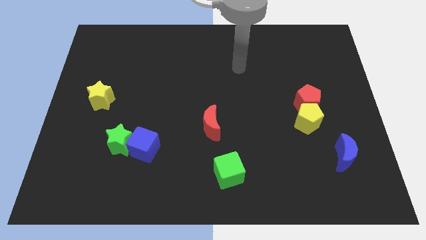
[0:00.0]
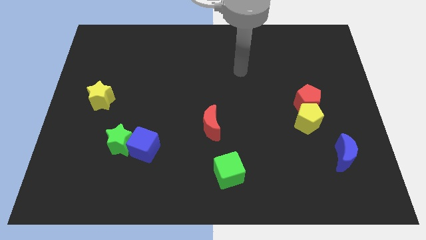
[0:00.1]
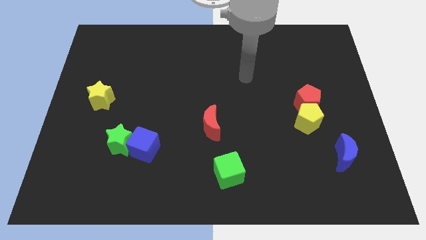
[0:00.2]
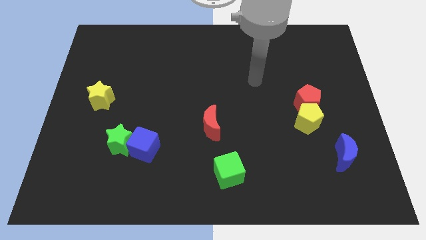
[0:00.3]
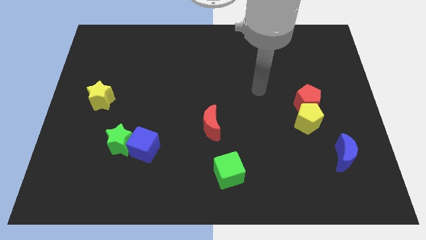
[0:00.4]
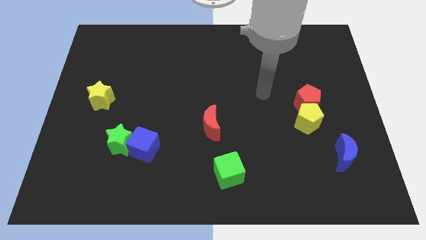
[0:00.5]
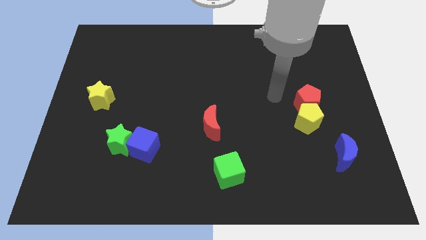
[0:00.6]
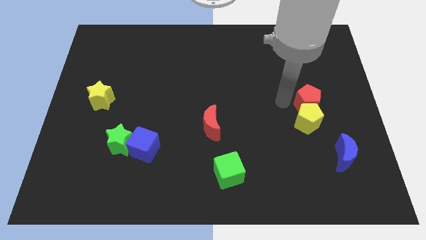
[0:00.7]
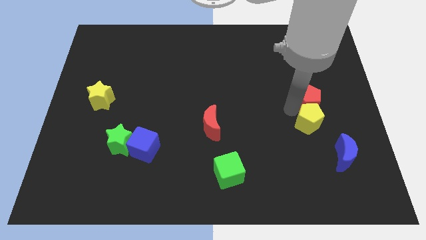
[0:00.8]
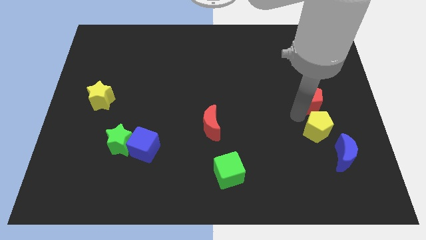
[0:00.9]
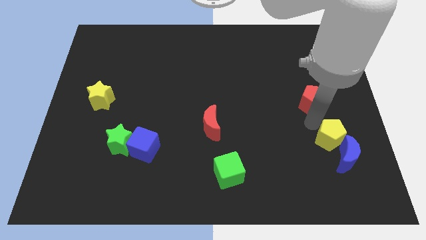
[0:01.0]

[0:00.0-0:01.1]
move the red pentagon away from the yellow pentagon

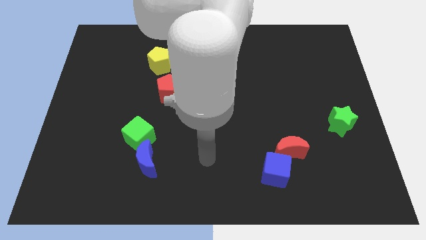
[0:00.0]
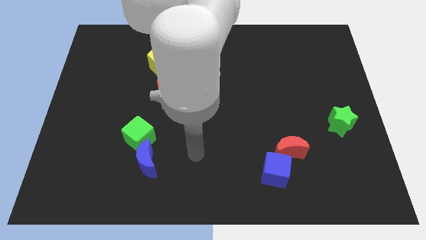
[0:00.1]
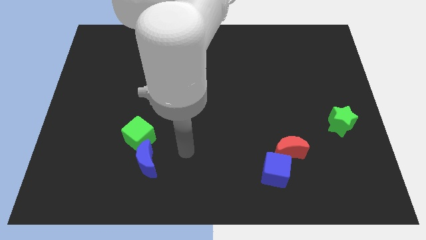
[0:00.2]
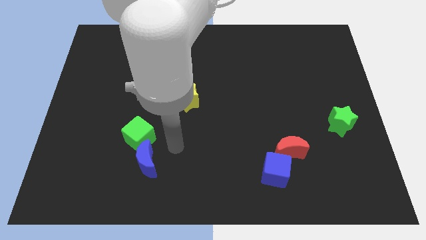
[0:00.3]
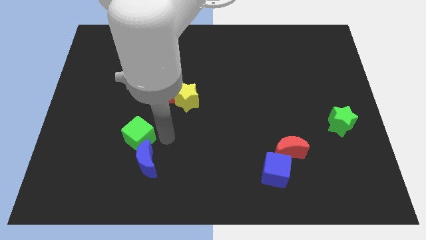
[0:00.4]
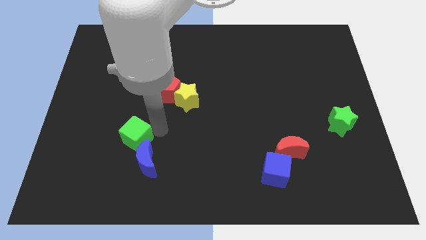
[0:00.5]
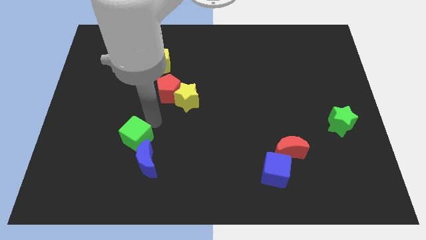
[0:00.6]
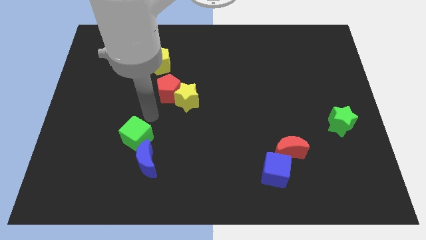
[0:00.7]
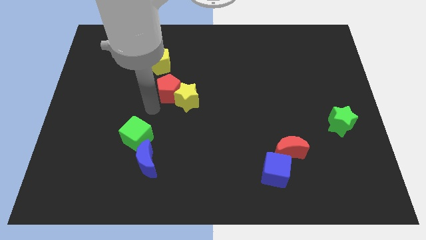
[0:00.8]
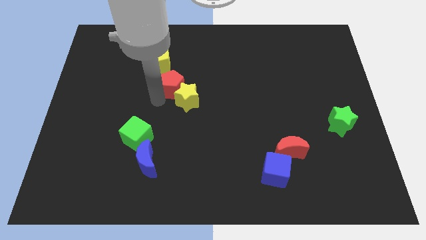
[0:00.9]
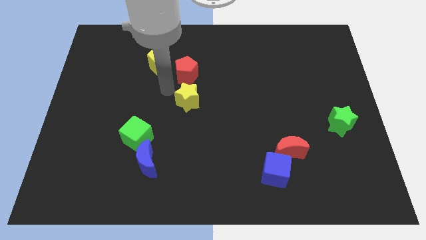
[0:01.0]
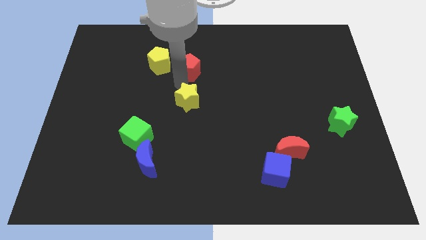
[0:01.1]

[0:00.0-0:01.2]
separate the yellow star from the red pentagon

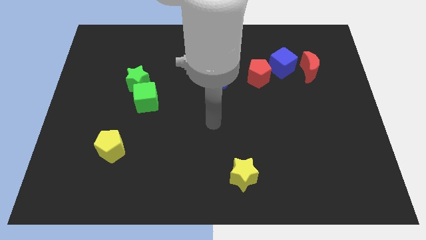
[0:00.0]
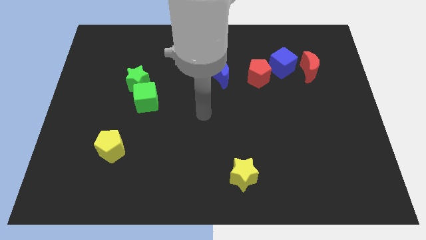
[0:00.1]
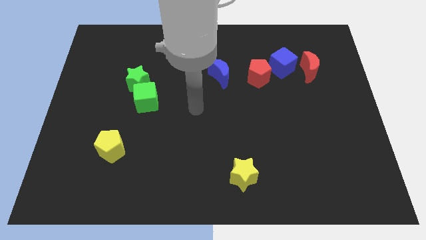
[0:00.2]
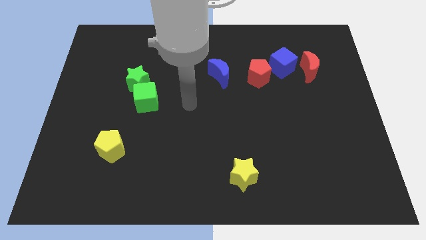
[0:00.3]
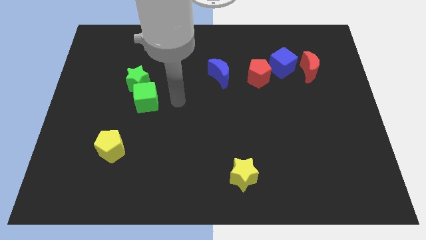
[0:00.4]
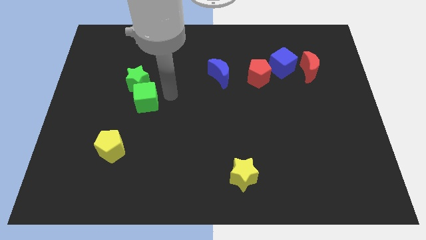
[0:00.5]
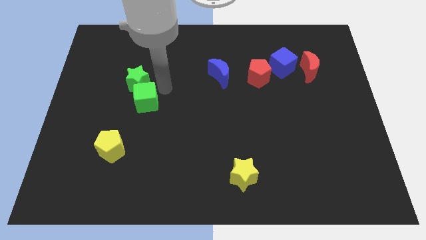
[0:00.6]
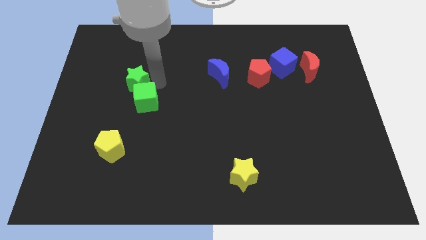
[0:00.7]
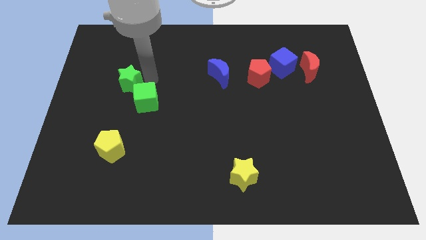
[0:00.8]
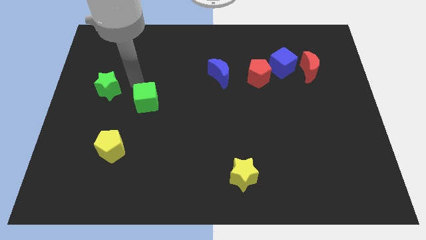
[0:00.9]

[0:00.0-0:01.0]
separate the green cube from the green star

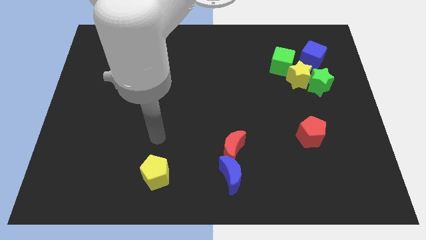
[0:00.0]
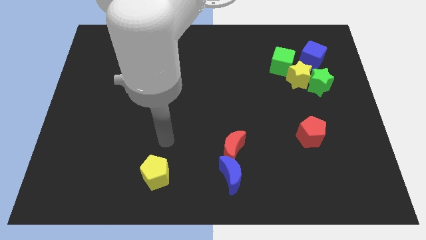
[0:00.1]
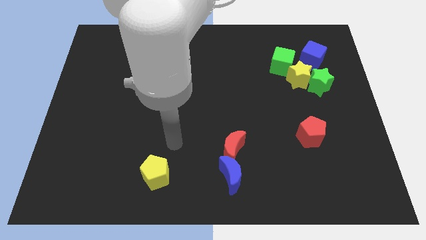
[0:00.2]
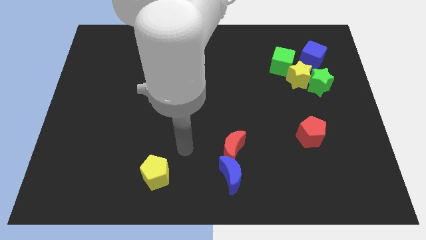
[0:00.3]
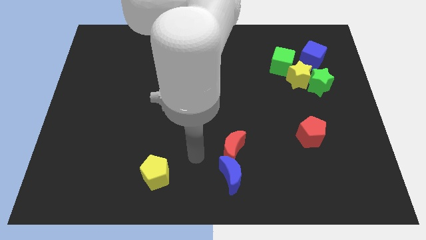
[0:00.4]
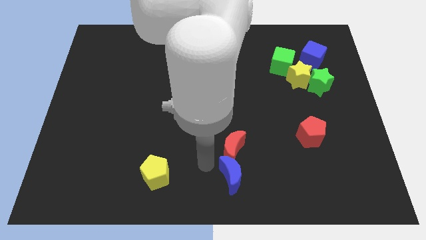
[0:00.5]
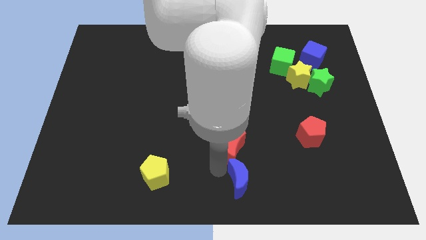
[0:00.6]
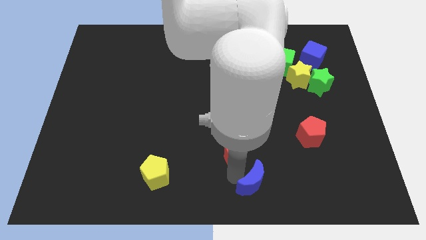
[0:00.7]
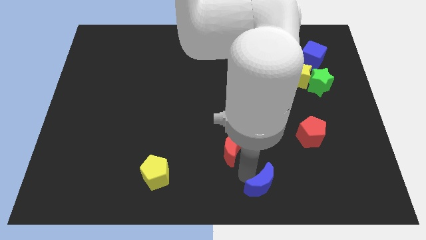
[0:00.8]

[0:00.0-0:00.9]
pull the red moon apart from the blue moon

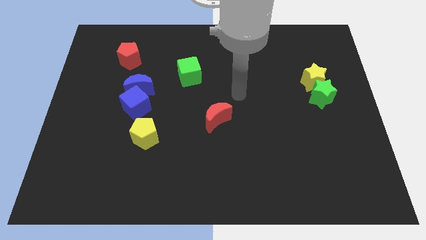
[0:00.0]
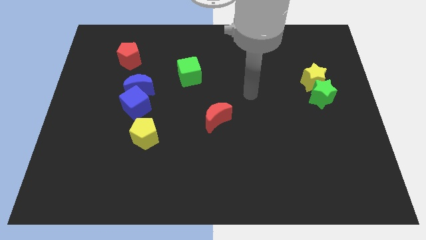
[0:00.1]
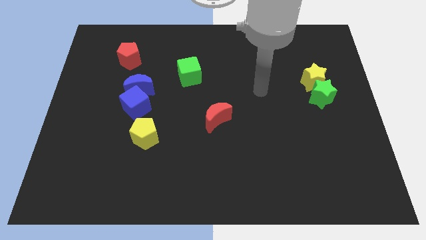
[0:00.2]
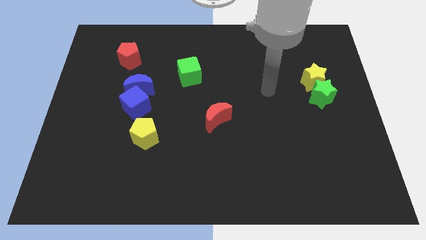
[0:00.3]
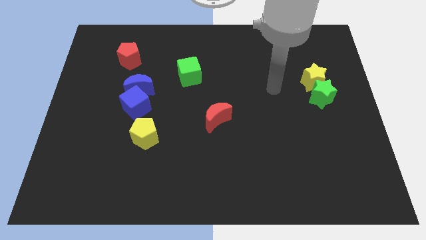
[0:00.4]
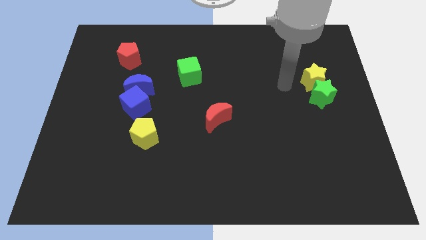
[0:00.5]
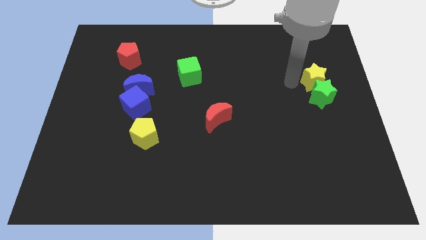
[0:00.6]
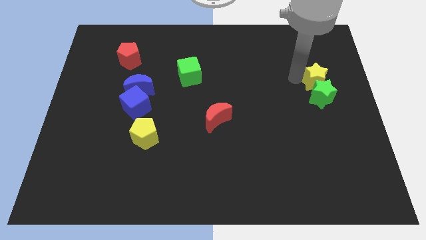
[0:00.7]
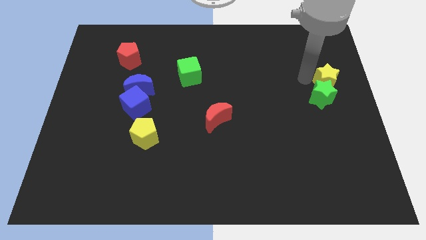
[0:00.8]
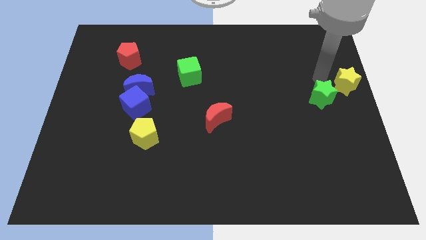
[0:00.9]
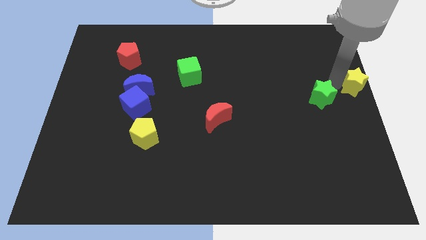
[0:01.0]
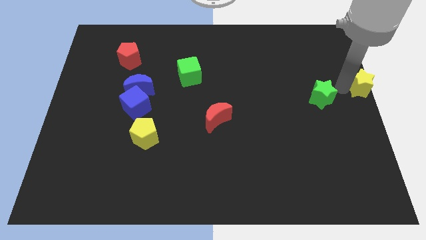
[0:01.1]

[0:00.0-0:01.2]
move the green star away from the yellow star

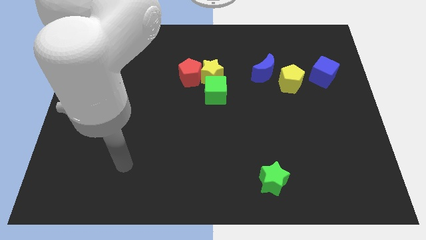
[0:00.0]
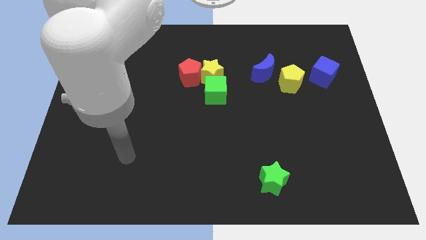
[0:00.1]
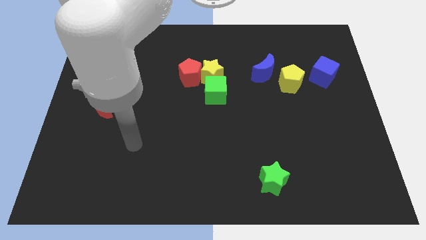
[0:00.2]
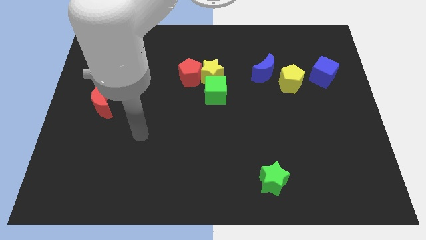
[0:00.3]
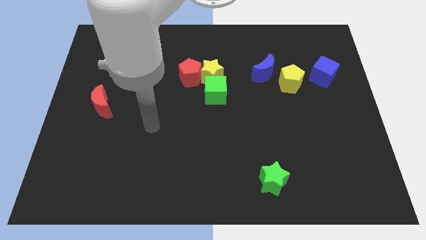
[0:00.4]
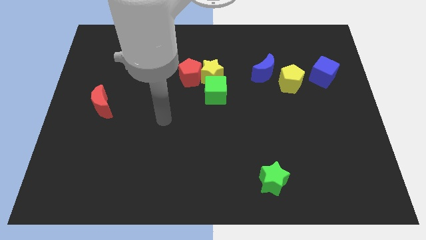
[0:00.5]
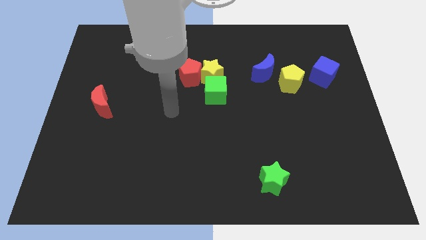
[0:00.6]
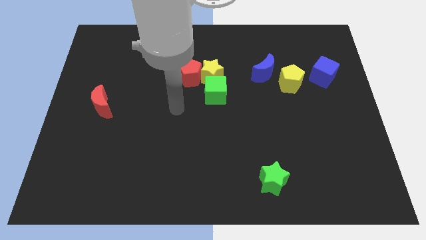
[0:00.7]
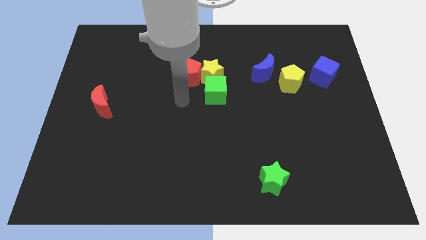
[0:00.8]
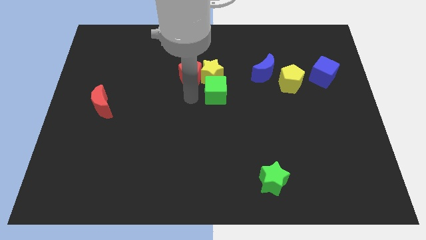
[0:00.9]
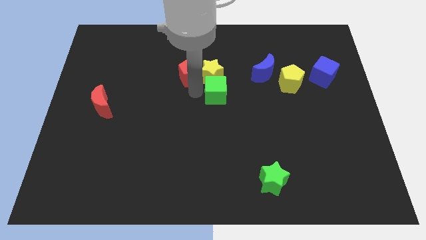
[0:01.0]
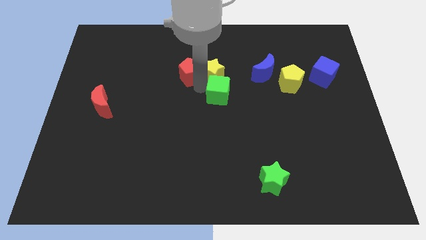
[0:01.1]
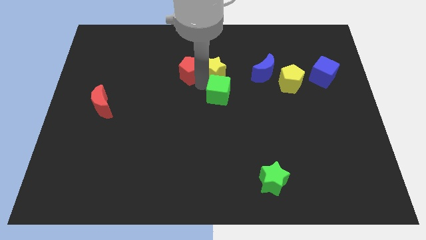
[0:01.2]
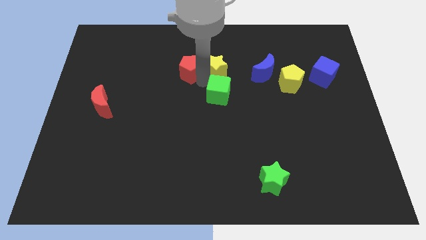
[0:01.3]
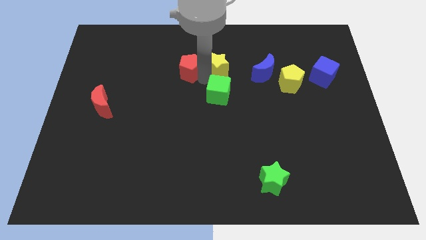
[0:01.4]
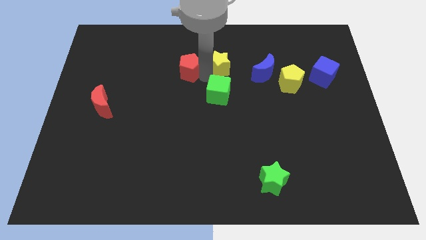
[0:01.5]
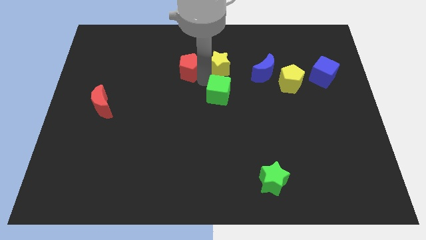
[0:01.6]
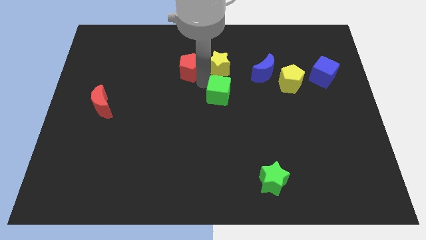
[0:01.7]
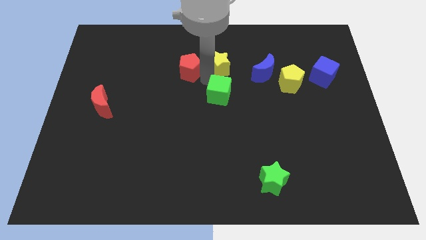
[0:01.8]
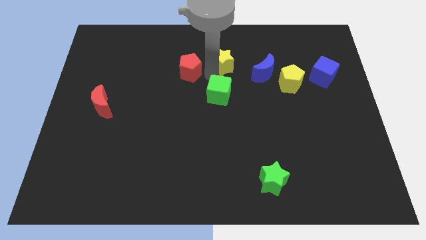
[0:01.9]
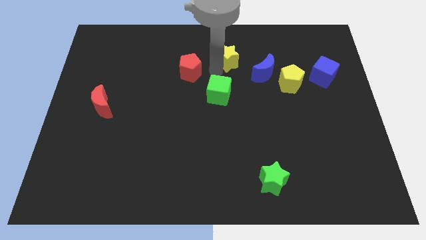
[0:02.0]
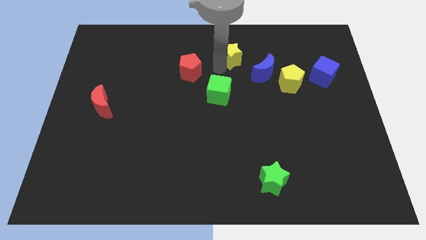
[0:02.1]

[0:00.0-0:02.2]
move the yellow star away from the red pentagon and green cube

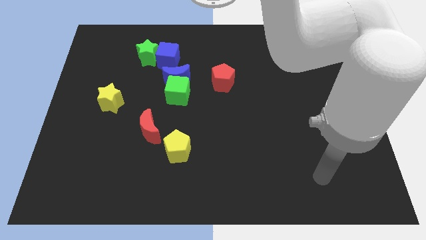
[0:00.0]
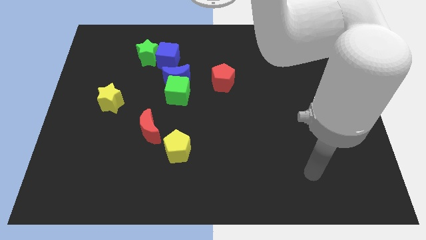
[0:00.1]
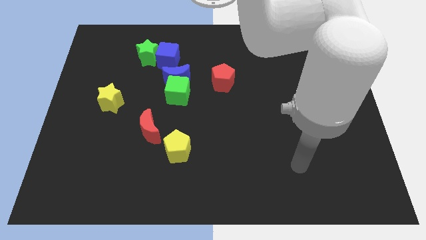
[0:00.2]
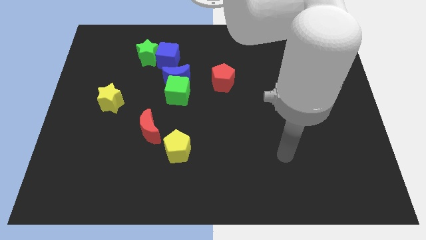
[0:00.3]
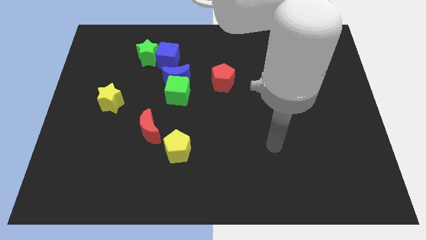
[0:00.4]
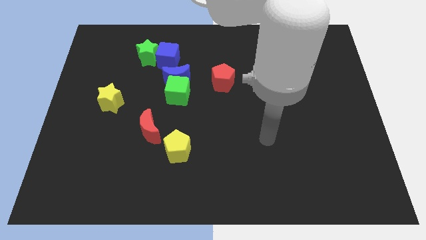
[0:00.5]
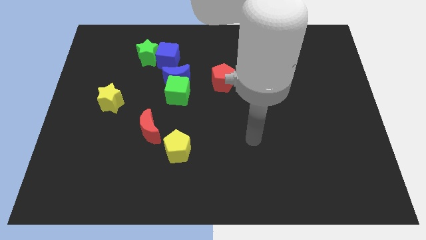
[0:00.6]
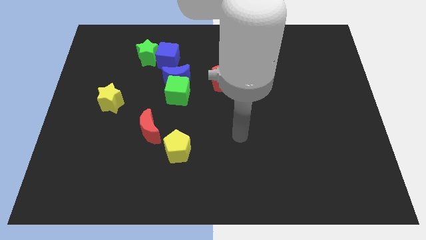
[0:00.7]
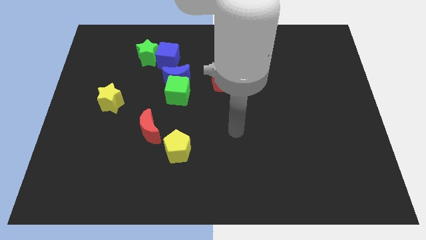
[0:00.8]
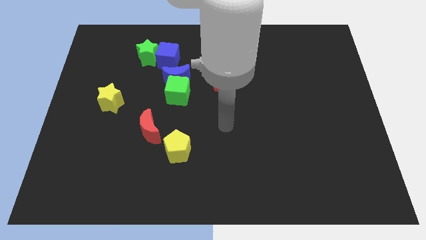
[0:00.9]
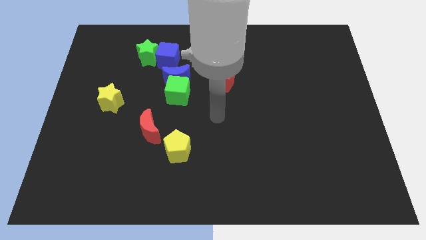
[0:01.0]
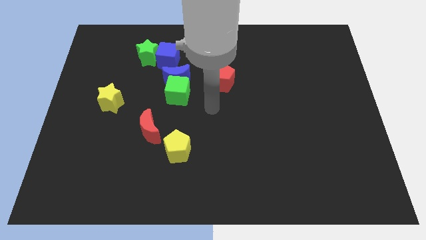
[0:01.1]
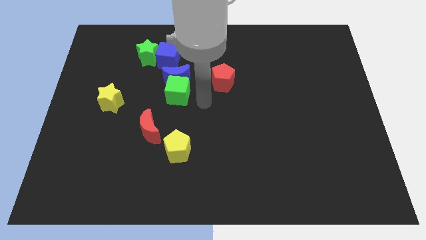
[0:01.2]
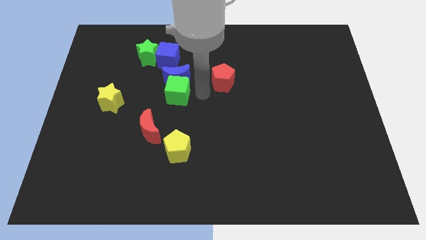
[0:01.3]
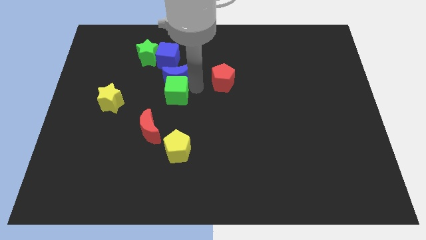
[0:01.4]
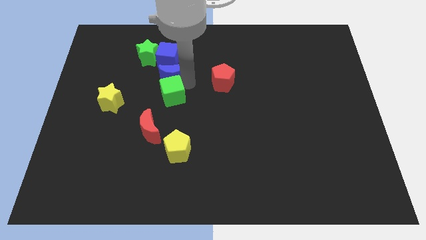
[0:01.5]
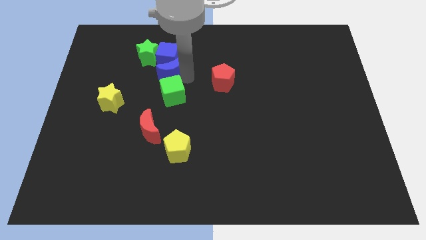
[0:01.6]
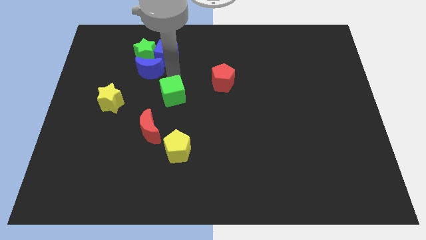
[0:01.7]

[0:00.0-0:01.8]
separate the green cube from the blue moon
